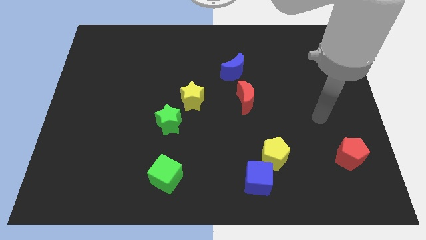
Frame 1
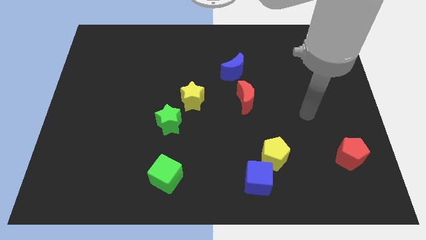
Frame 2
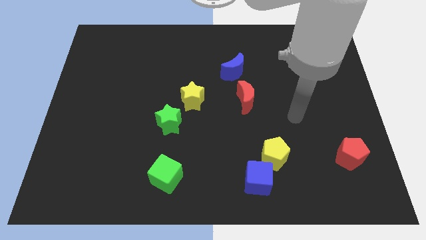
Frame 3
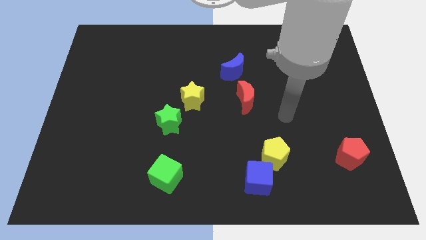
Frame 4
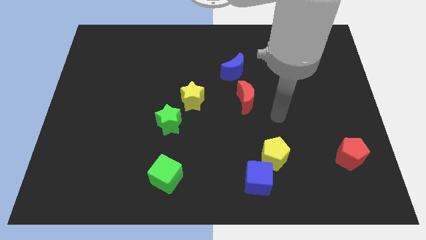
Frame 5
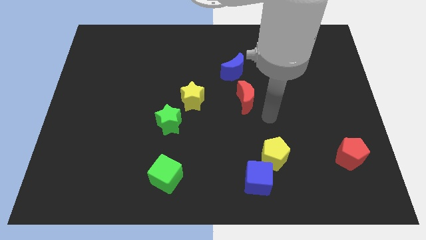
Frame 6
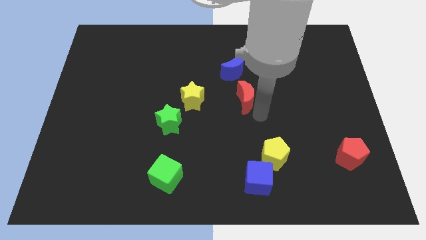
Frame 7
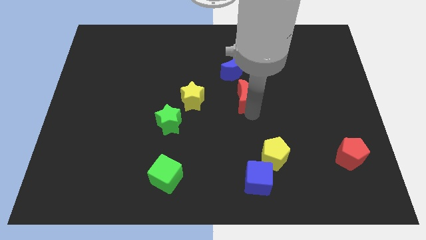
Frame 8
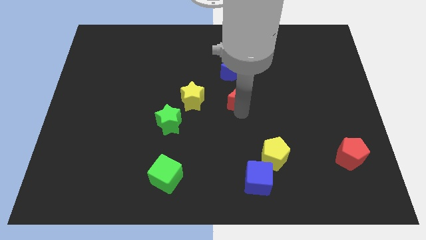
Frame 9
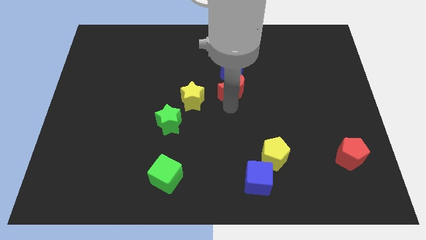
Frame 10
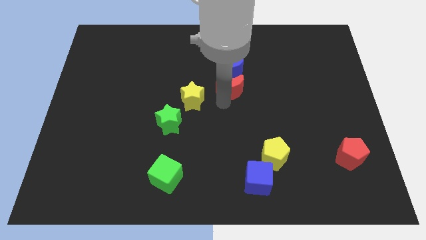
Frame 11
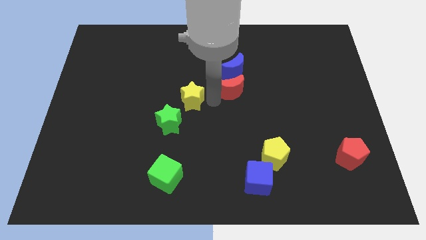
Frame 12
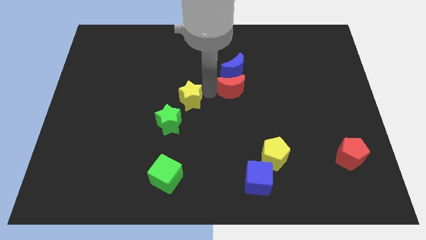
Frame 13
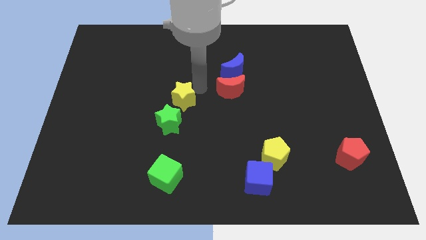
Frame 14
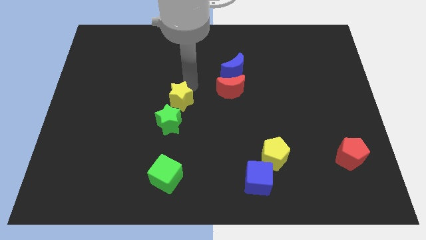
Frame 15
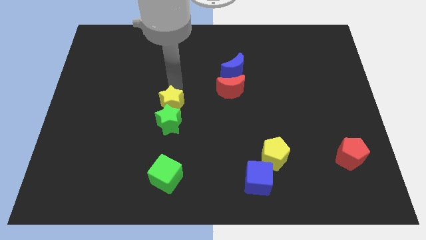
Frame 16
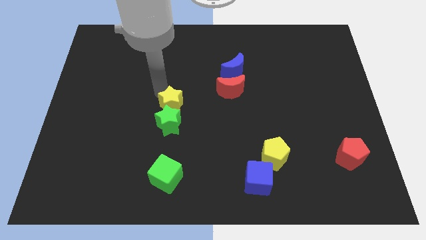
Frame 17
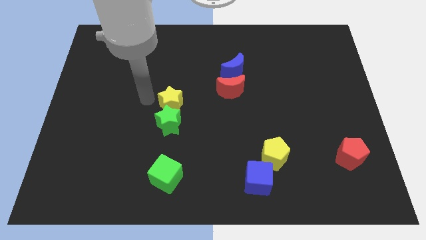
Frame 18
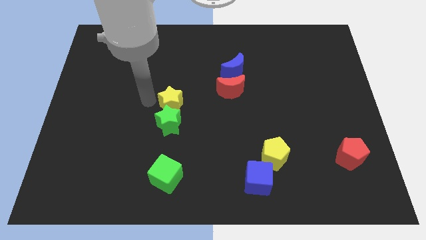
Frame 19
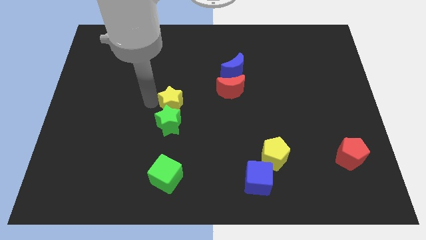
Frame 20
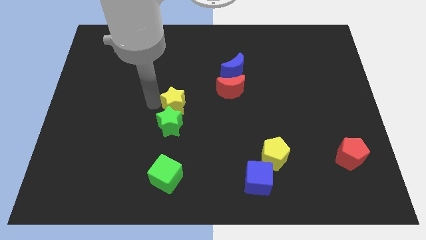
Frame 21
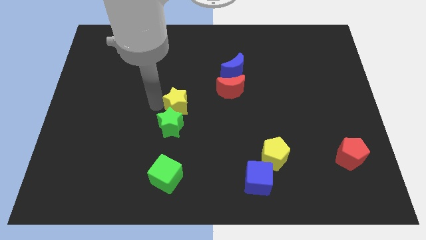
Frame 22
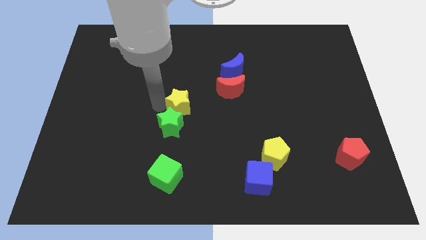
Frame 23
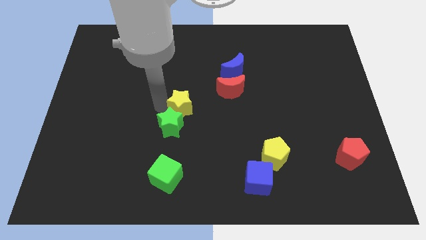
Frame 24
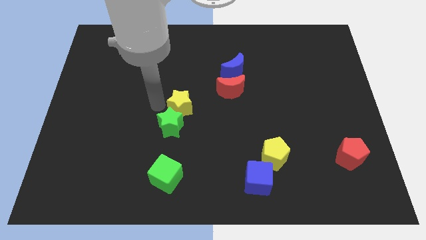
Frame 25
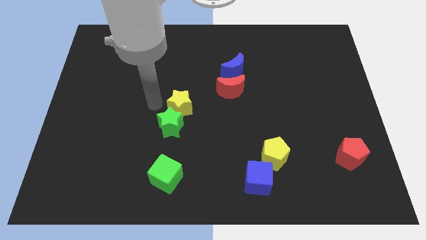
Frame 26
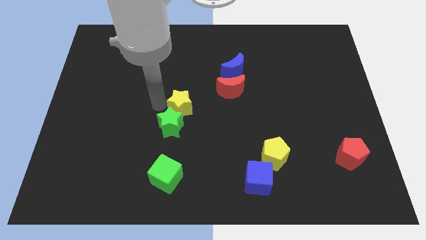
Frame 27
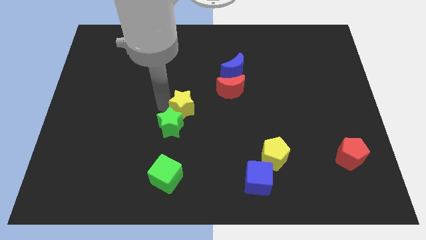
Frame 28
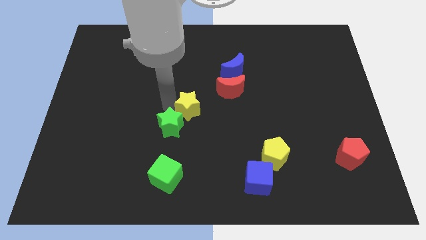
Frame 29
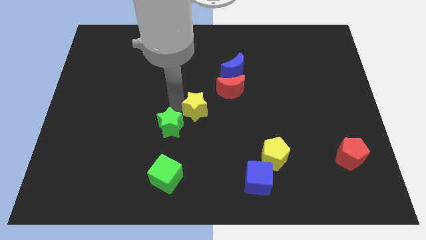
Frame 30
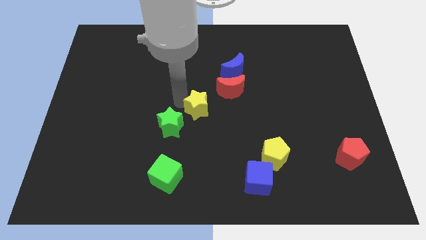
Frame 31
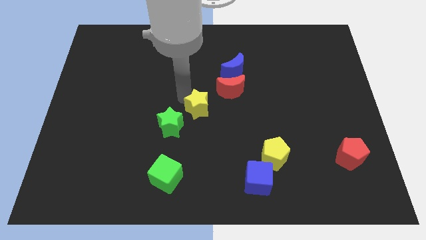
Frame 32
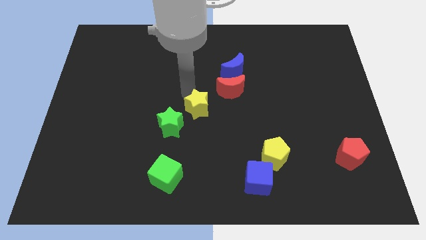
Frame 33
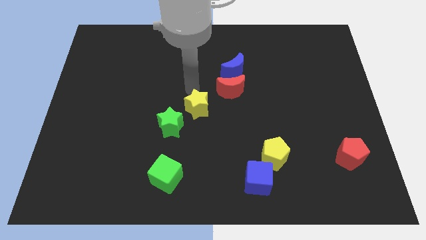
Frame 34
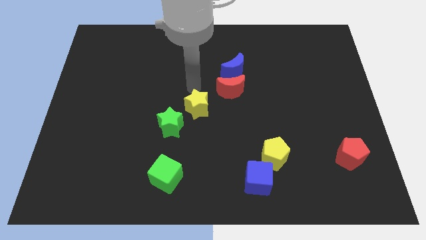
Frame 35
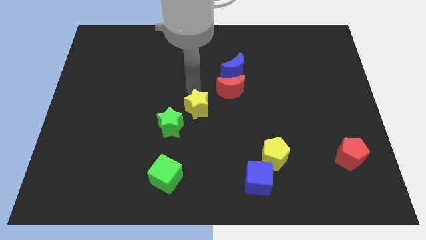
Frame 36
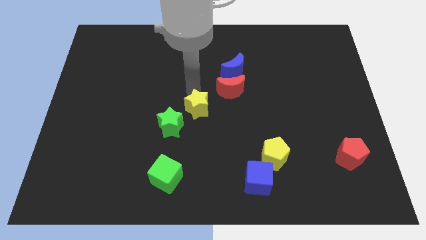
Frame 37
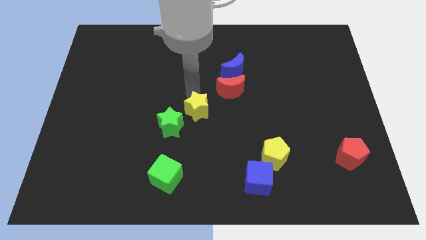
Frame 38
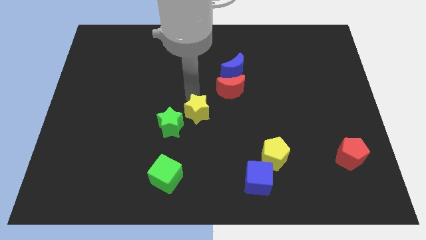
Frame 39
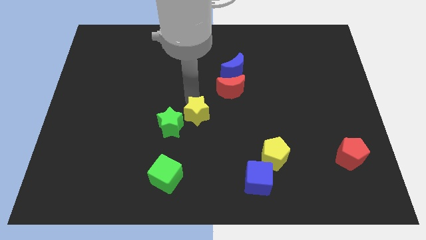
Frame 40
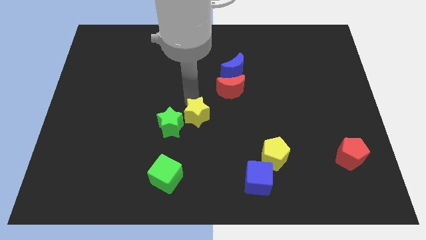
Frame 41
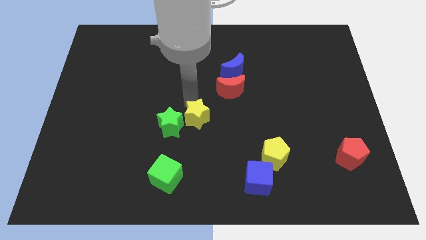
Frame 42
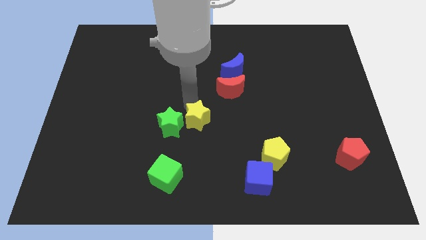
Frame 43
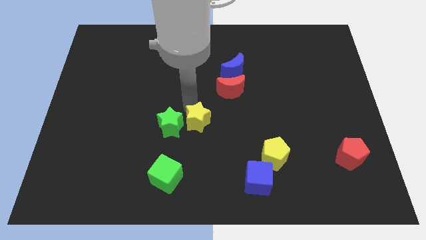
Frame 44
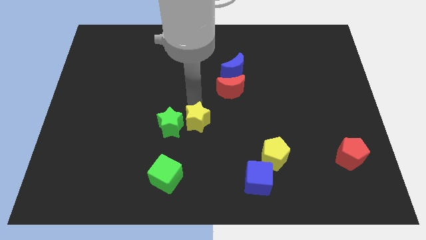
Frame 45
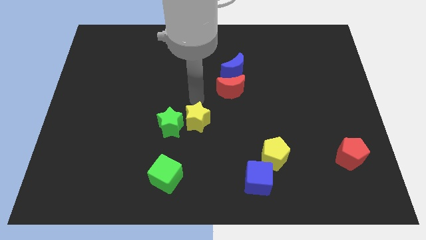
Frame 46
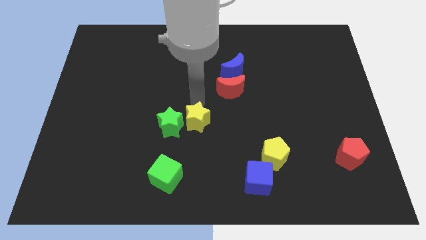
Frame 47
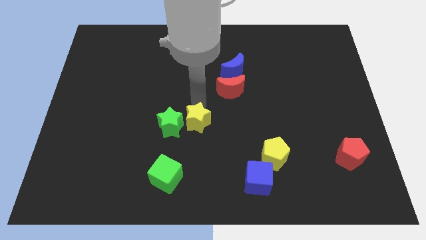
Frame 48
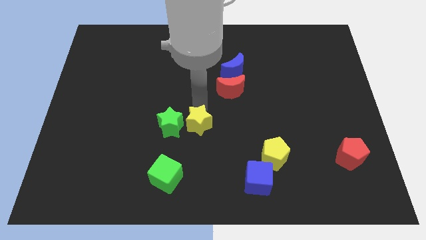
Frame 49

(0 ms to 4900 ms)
slightly move the yellow star down

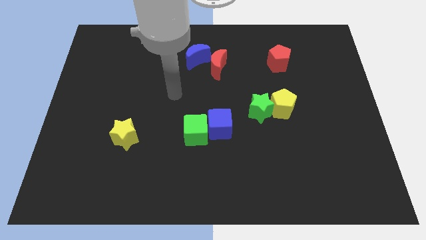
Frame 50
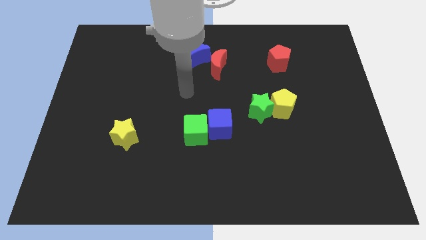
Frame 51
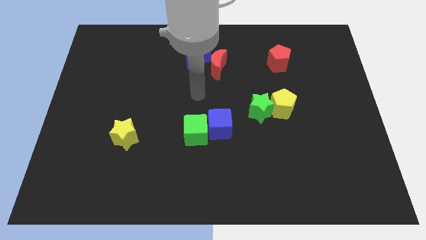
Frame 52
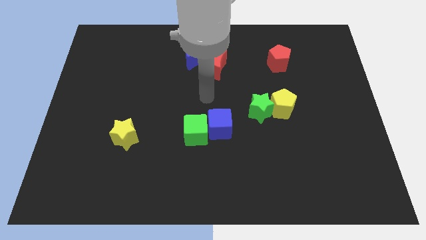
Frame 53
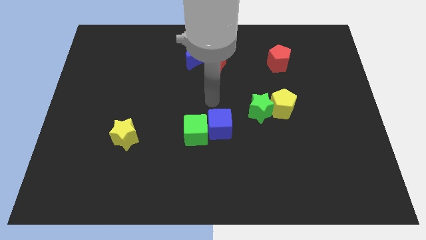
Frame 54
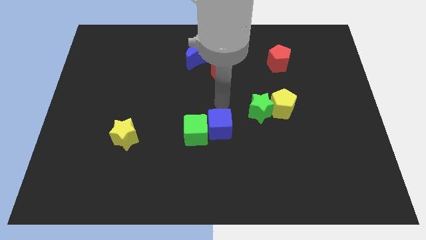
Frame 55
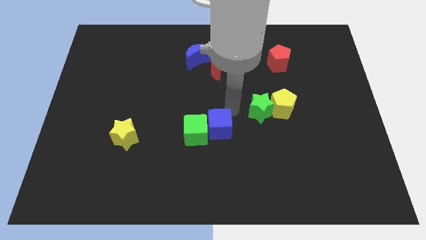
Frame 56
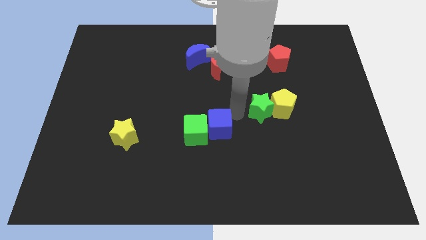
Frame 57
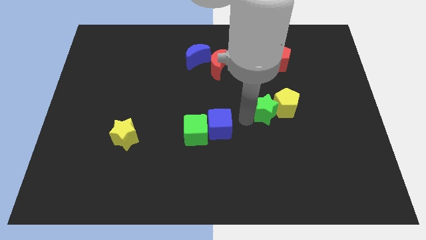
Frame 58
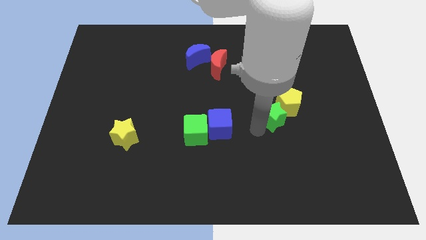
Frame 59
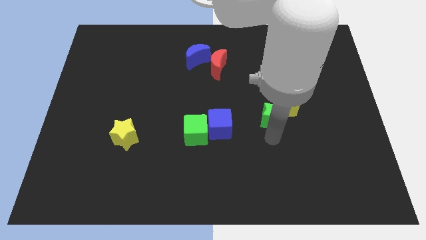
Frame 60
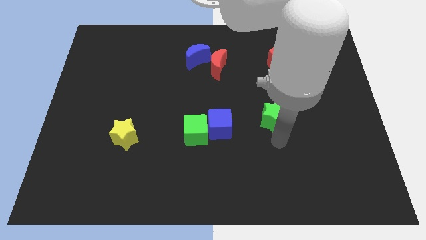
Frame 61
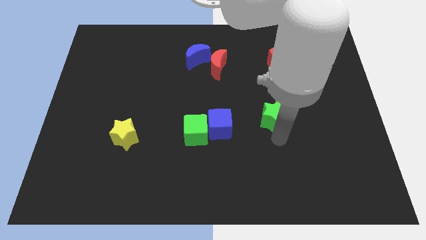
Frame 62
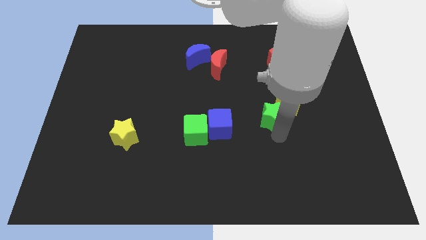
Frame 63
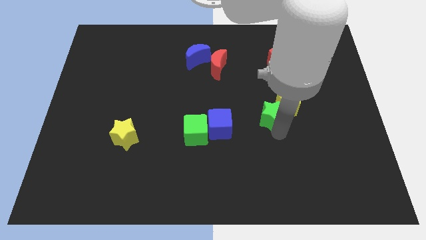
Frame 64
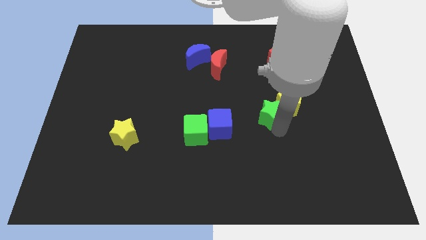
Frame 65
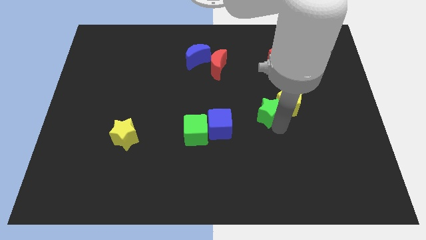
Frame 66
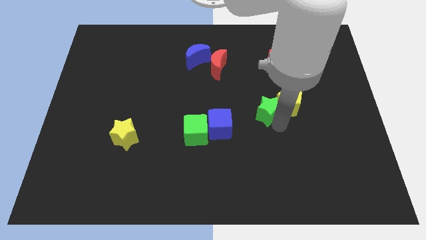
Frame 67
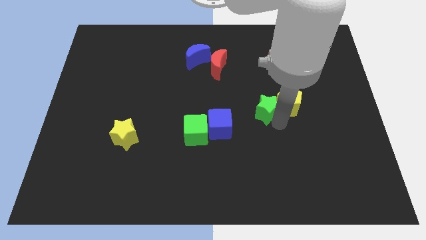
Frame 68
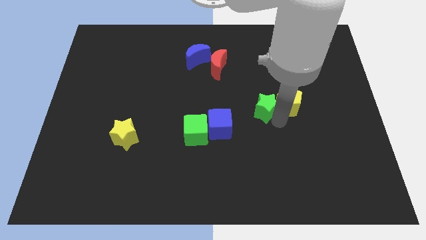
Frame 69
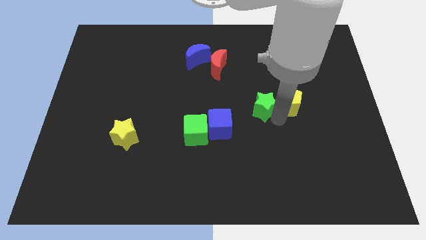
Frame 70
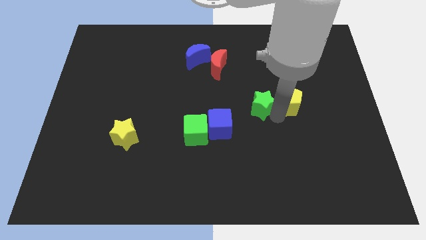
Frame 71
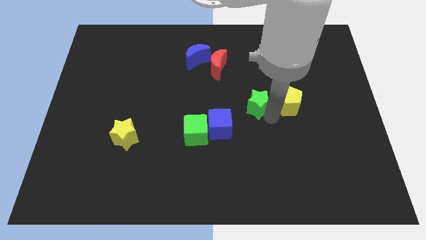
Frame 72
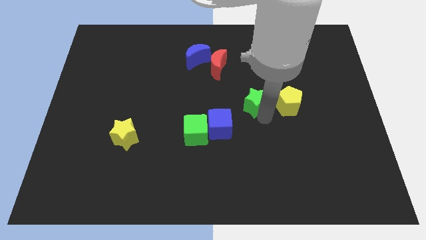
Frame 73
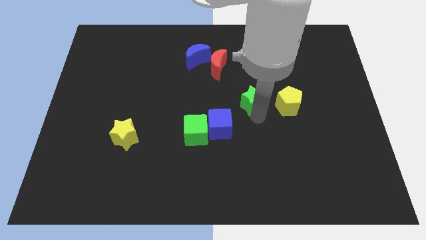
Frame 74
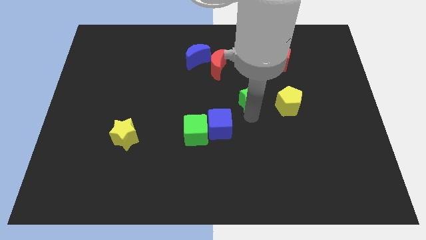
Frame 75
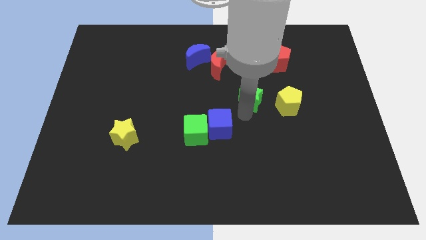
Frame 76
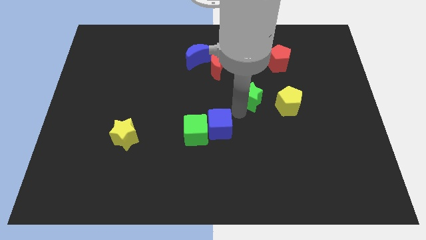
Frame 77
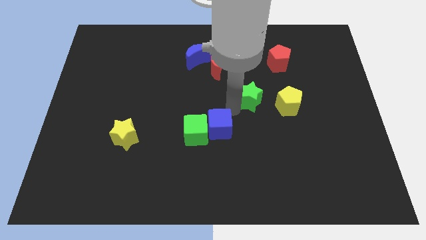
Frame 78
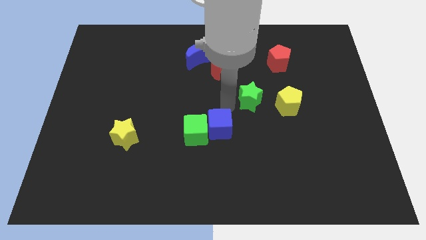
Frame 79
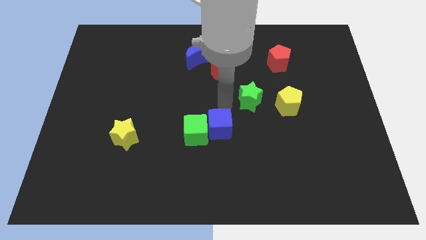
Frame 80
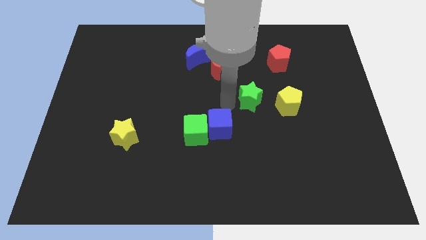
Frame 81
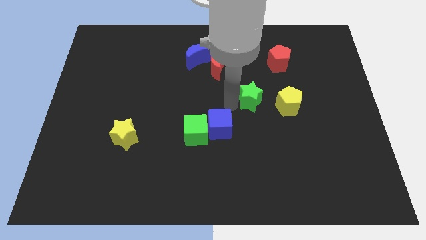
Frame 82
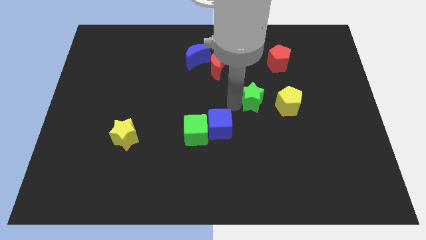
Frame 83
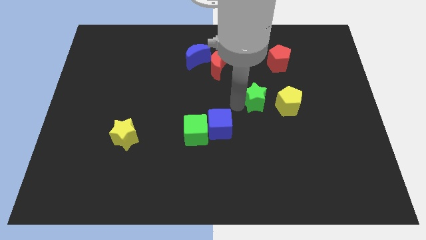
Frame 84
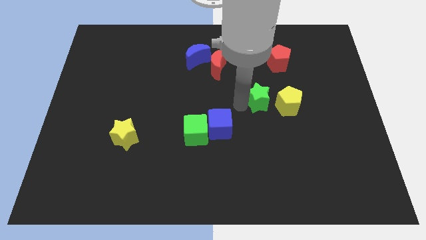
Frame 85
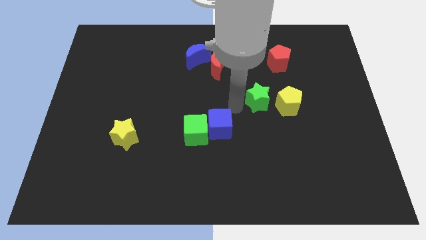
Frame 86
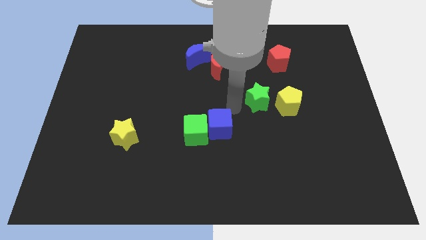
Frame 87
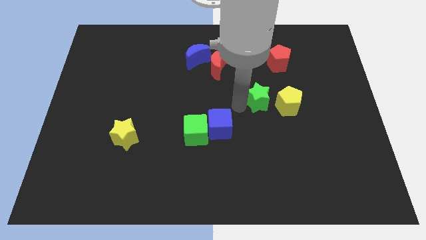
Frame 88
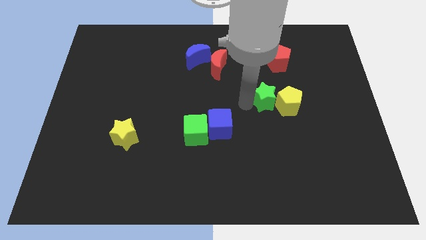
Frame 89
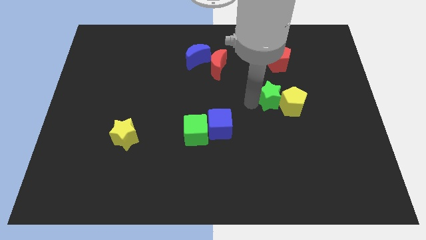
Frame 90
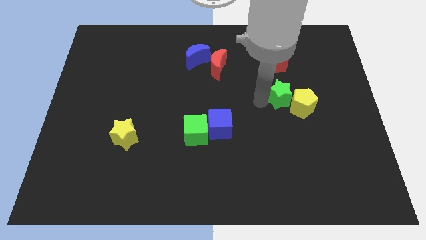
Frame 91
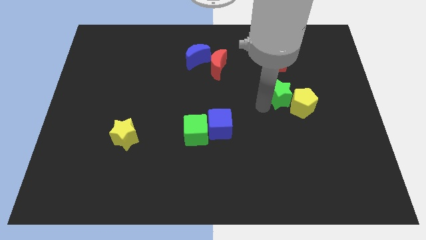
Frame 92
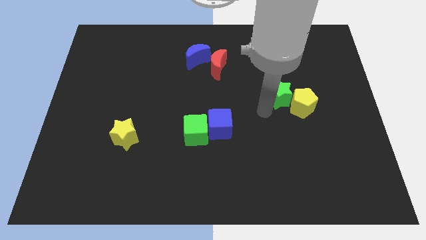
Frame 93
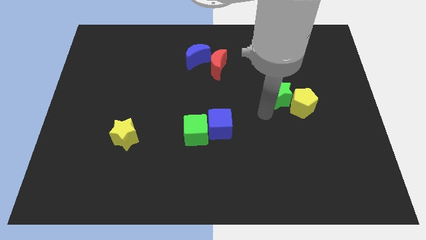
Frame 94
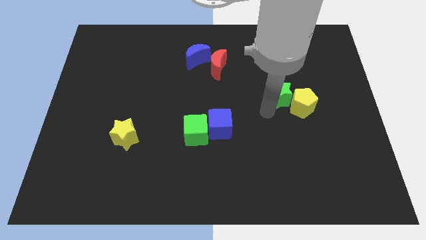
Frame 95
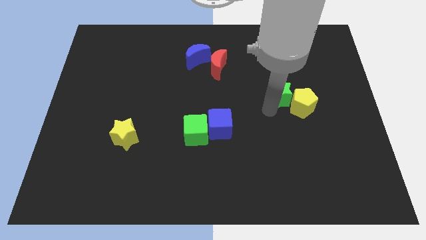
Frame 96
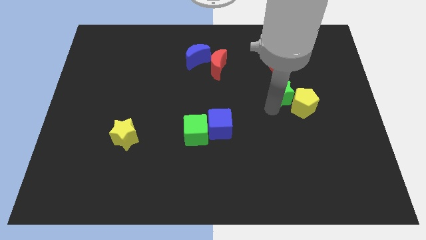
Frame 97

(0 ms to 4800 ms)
push the green star diagonally up and to the right a little
